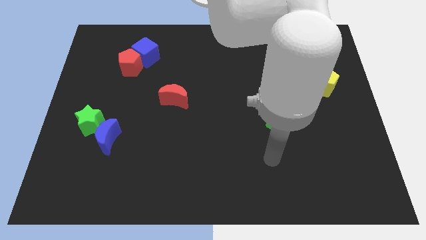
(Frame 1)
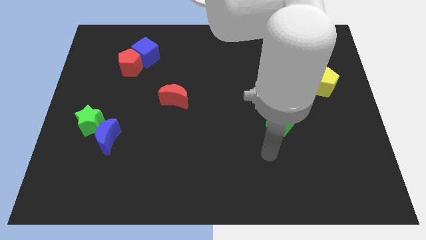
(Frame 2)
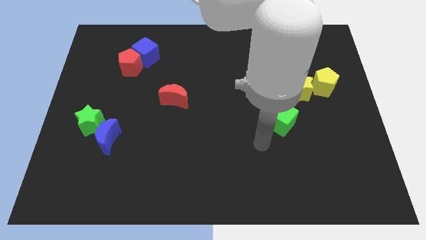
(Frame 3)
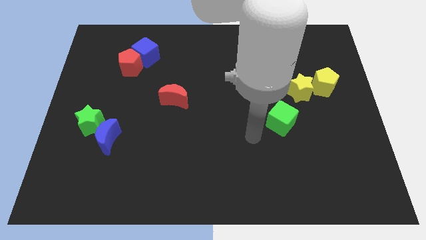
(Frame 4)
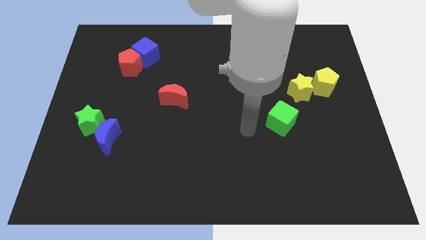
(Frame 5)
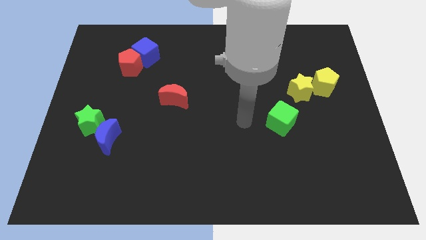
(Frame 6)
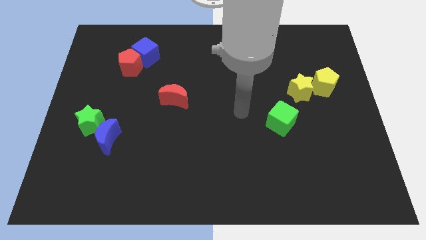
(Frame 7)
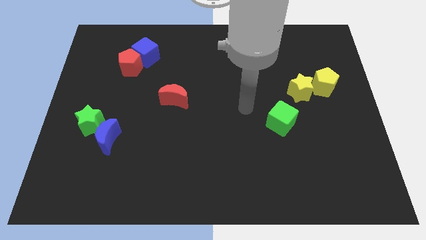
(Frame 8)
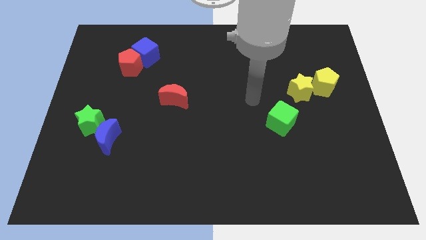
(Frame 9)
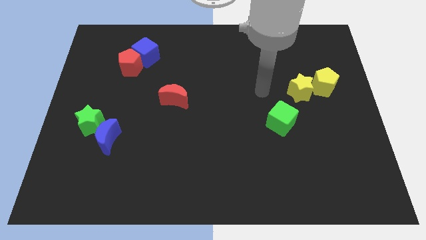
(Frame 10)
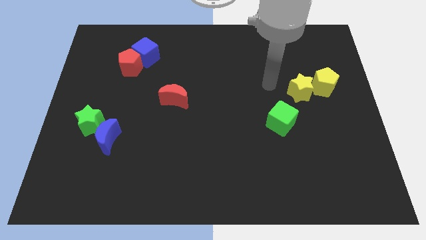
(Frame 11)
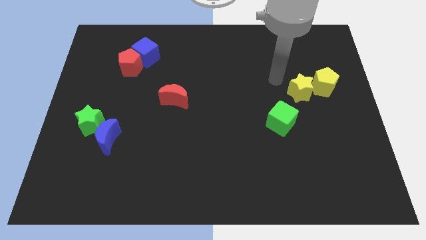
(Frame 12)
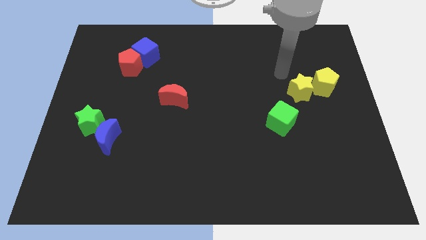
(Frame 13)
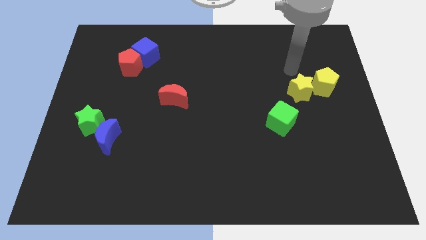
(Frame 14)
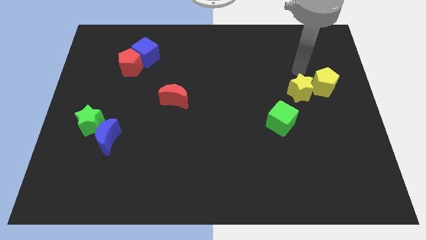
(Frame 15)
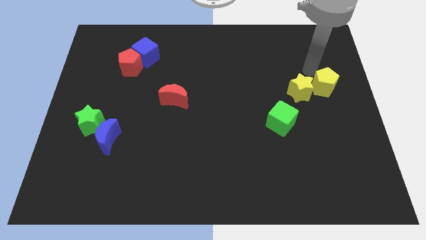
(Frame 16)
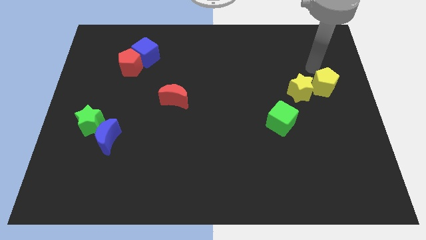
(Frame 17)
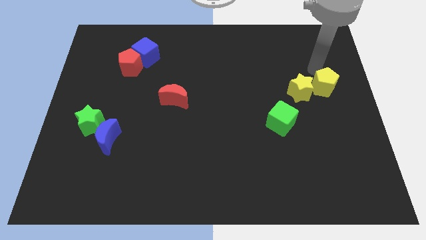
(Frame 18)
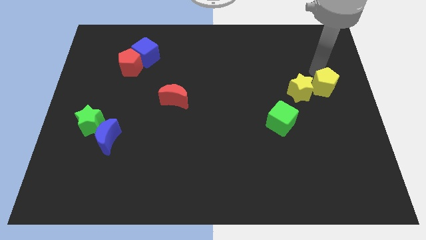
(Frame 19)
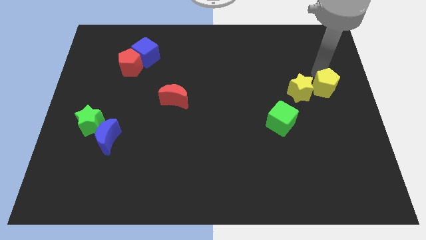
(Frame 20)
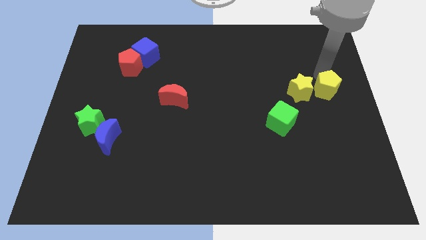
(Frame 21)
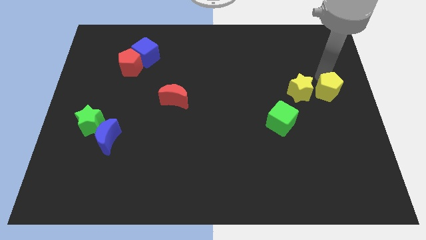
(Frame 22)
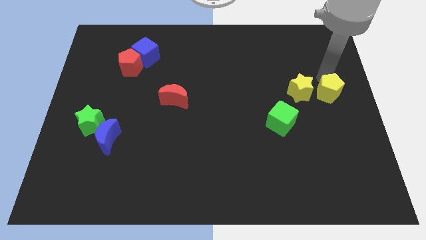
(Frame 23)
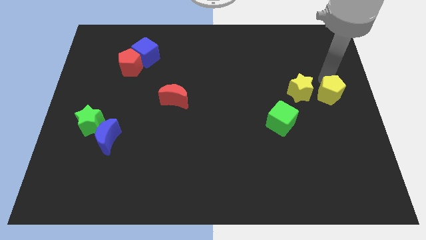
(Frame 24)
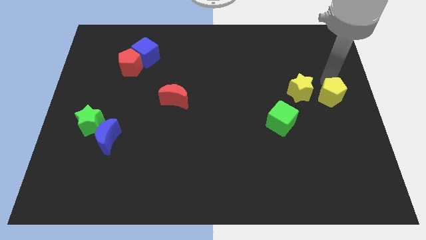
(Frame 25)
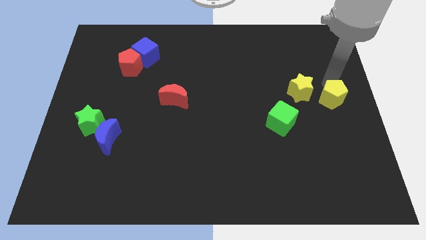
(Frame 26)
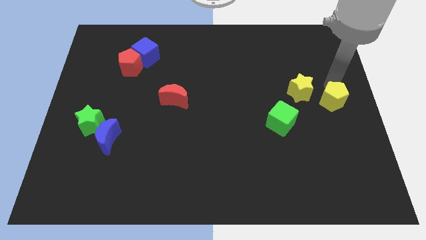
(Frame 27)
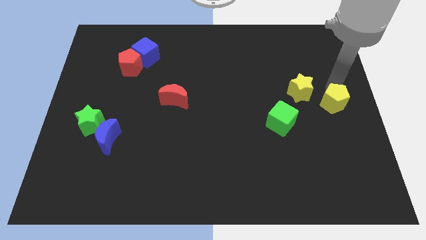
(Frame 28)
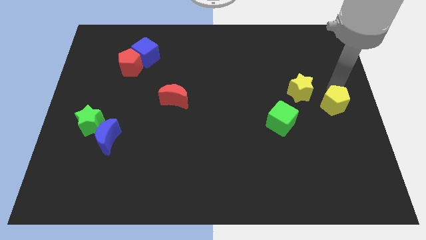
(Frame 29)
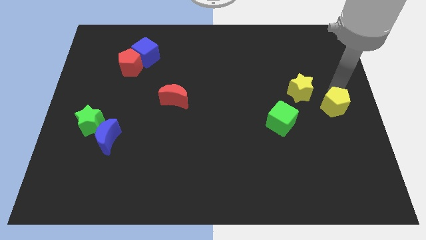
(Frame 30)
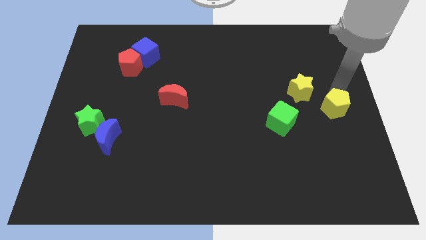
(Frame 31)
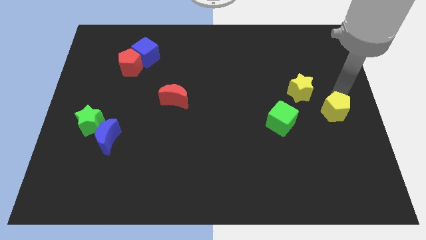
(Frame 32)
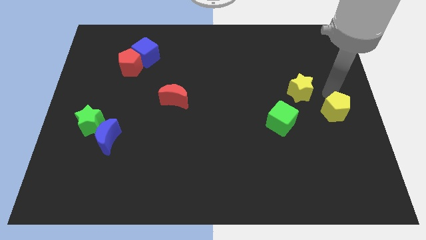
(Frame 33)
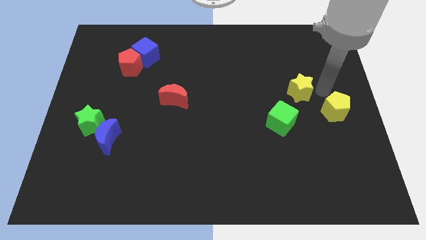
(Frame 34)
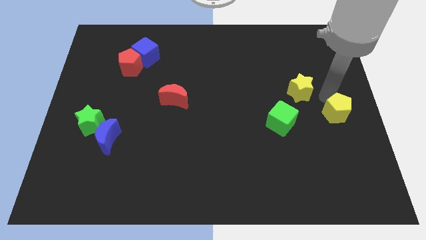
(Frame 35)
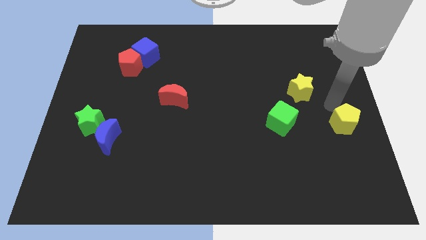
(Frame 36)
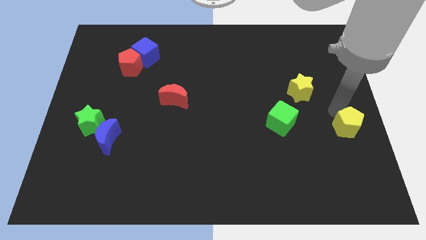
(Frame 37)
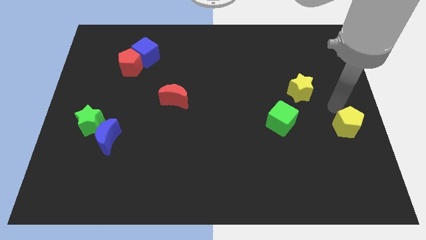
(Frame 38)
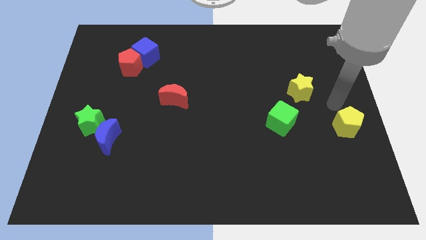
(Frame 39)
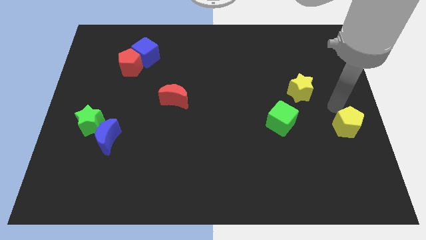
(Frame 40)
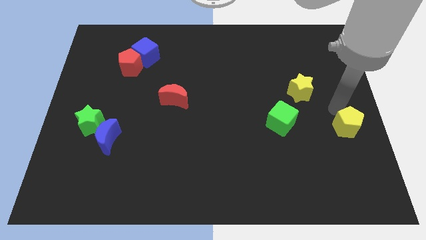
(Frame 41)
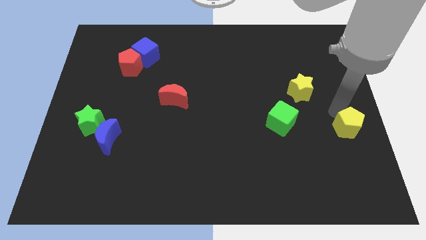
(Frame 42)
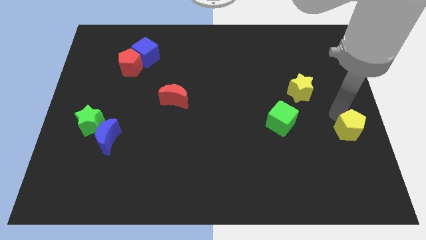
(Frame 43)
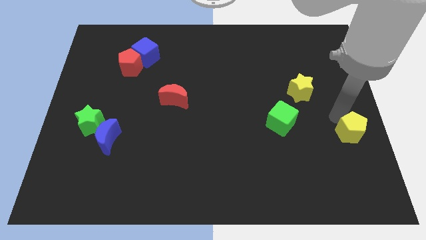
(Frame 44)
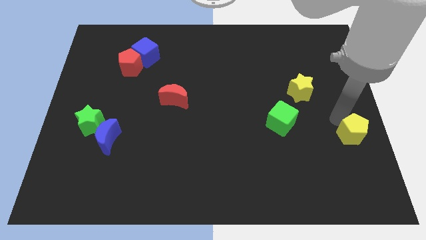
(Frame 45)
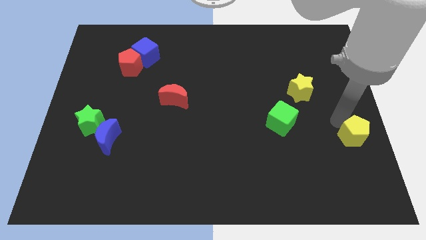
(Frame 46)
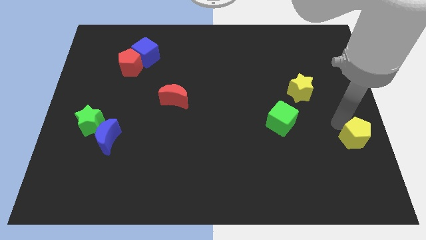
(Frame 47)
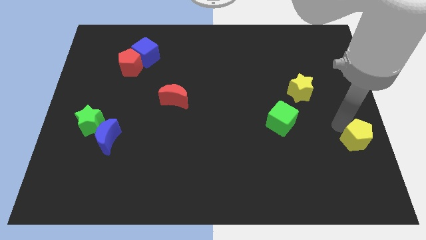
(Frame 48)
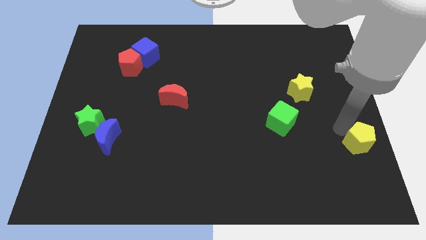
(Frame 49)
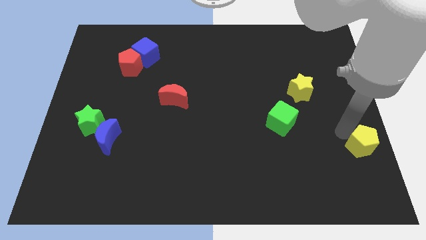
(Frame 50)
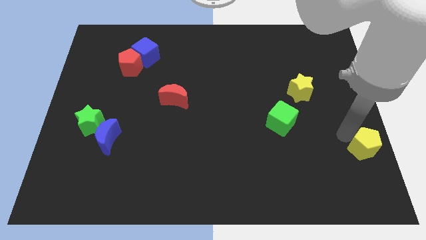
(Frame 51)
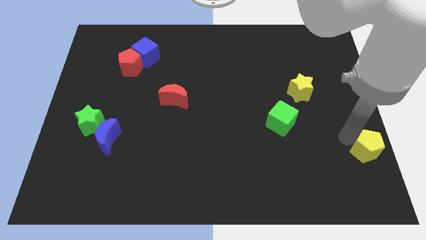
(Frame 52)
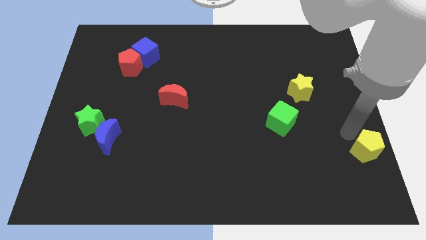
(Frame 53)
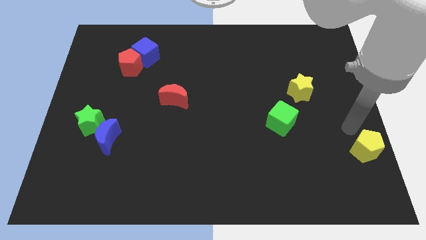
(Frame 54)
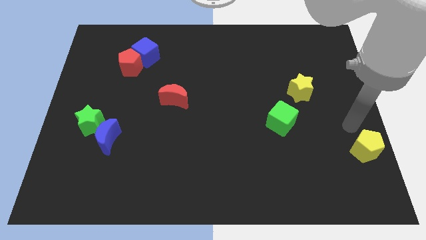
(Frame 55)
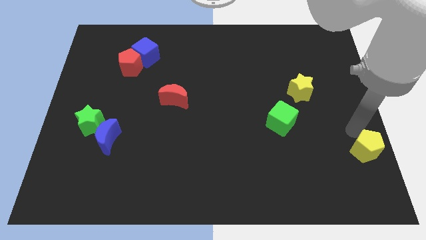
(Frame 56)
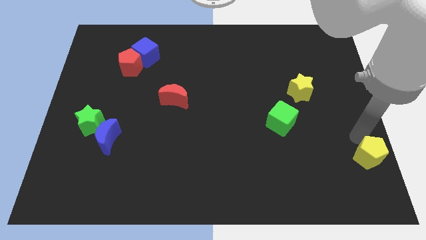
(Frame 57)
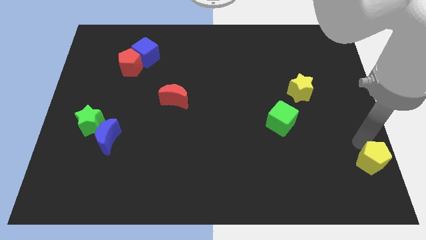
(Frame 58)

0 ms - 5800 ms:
put the yellow pentagon to the bottom right corner
